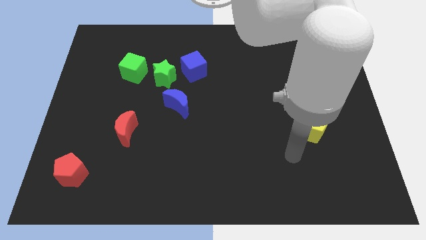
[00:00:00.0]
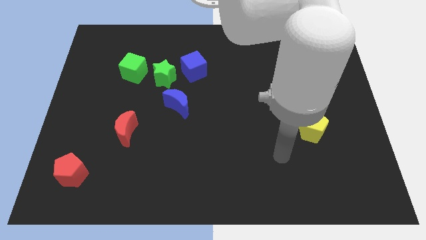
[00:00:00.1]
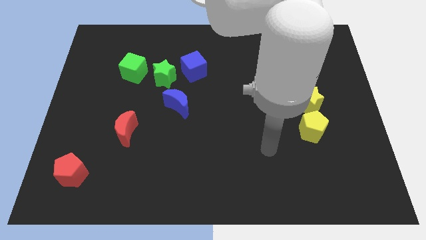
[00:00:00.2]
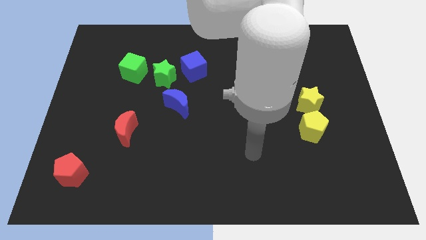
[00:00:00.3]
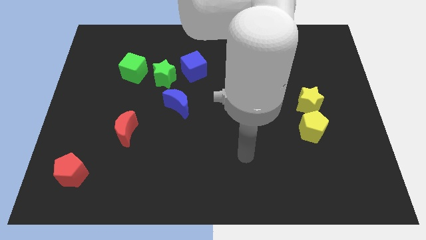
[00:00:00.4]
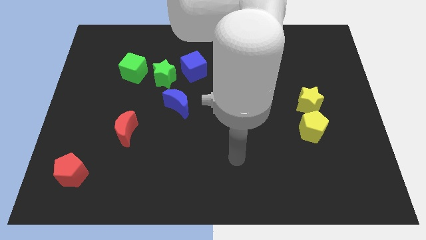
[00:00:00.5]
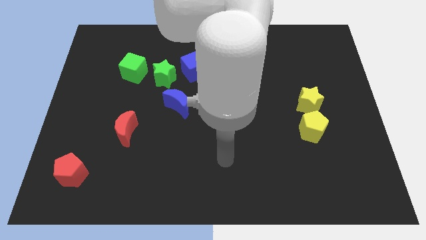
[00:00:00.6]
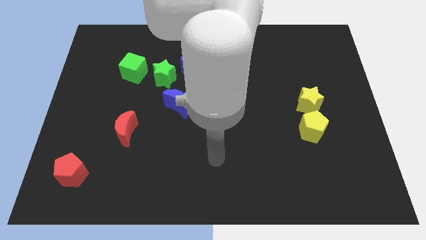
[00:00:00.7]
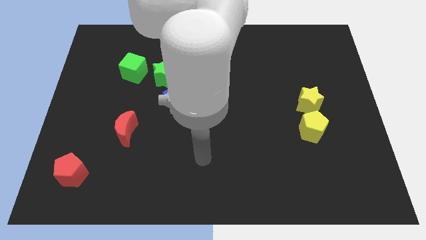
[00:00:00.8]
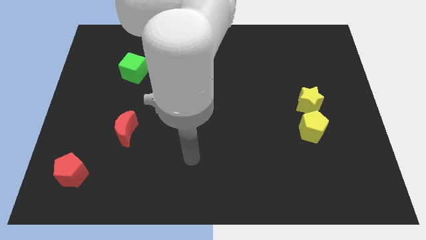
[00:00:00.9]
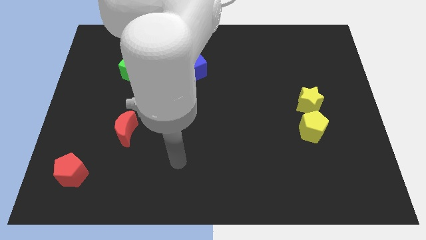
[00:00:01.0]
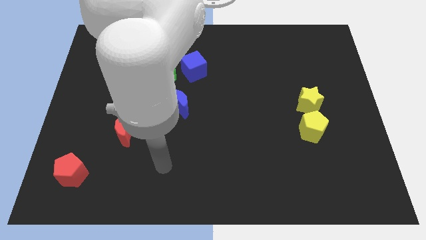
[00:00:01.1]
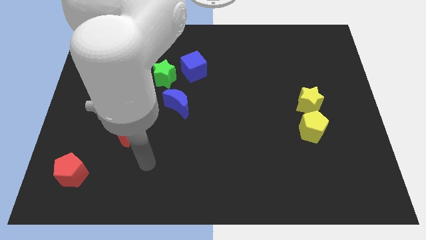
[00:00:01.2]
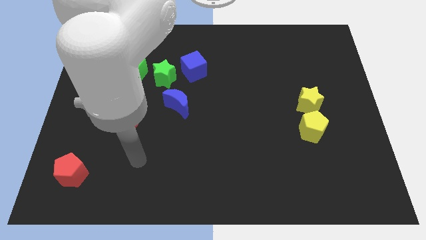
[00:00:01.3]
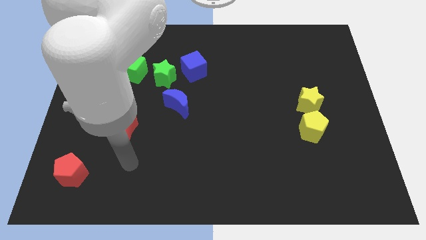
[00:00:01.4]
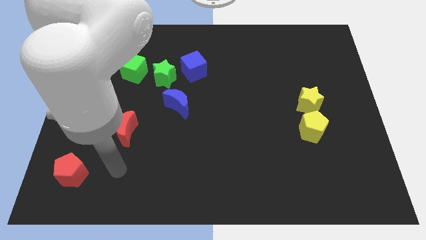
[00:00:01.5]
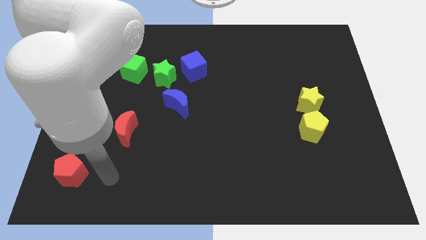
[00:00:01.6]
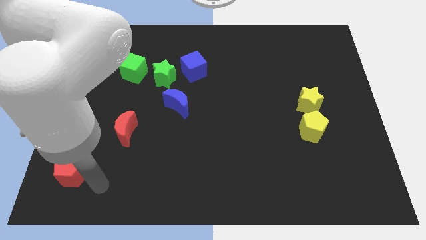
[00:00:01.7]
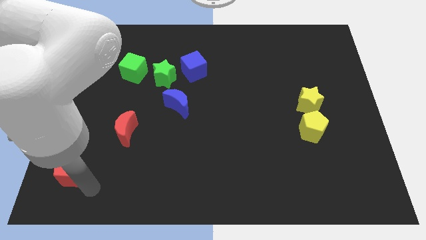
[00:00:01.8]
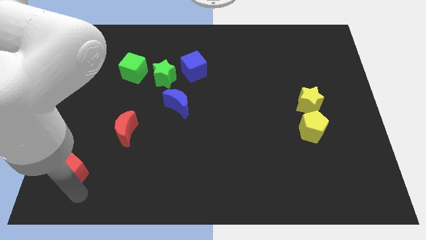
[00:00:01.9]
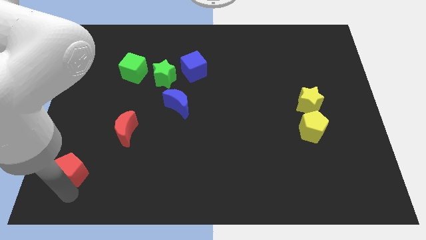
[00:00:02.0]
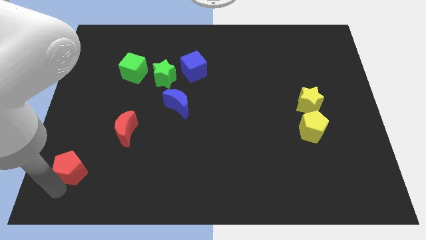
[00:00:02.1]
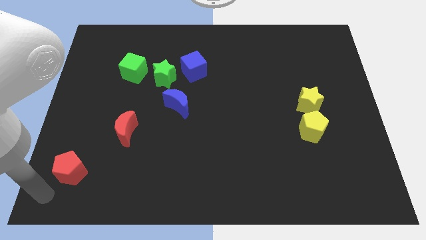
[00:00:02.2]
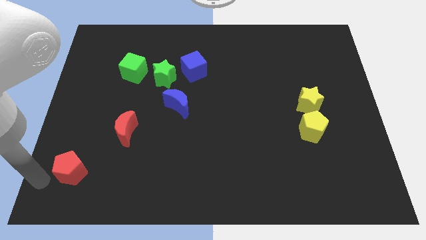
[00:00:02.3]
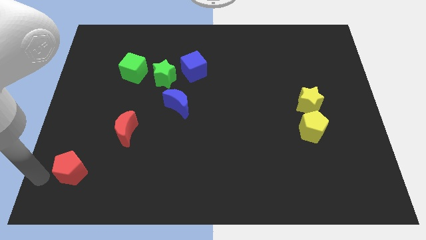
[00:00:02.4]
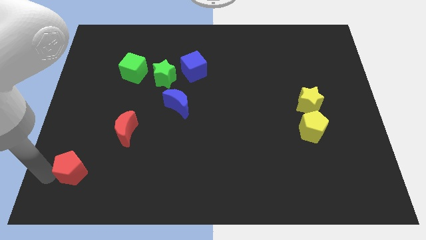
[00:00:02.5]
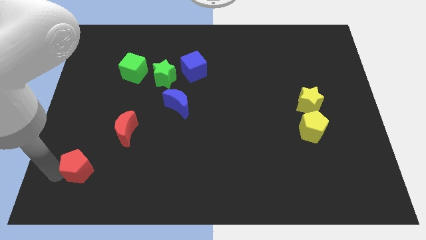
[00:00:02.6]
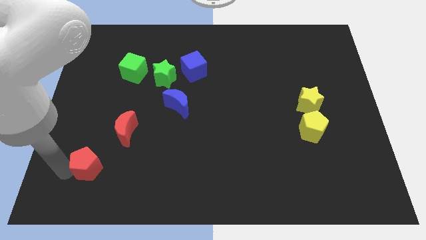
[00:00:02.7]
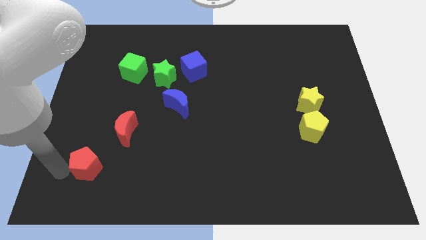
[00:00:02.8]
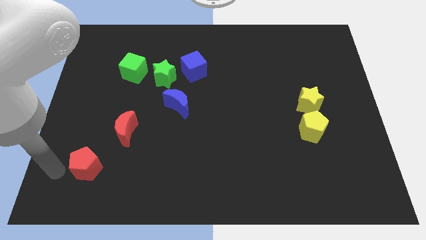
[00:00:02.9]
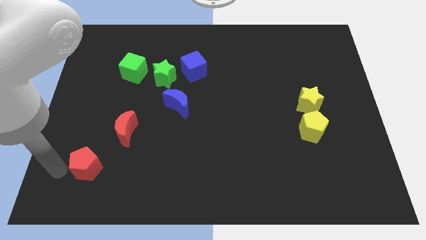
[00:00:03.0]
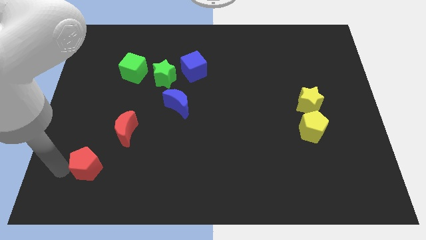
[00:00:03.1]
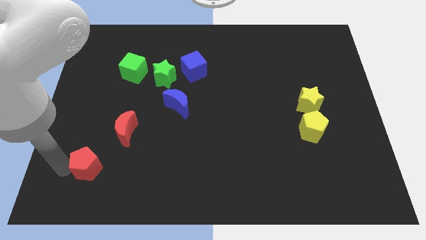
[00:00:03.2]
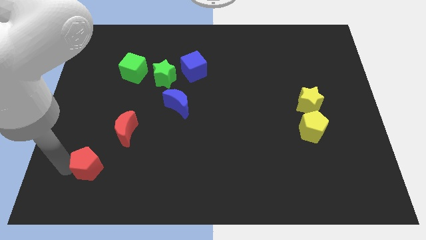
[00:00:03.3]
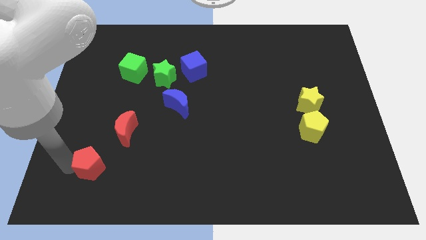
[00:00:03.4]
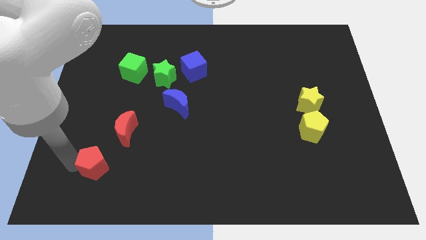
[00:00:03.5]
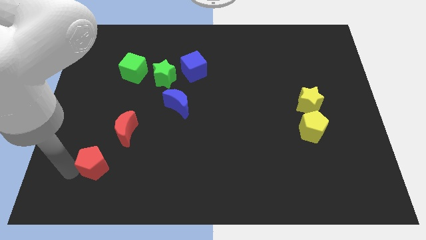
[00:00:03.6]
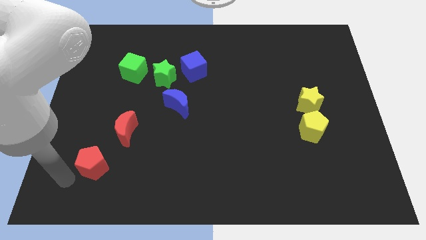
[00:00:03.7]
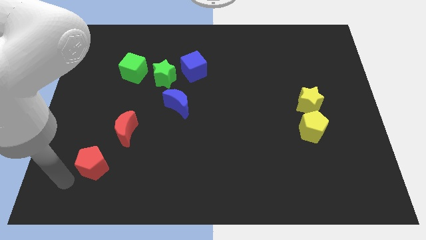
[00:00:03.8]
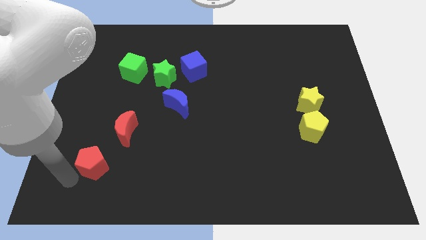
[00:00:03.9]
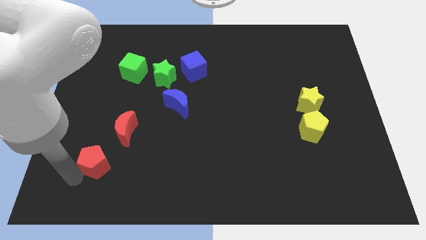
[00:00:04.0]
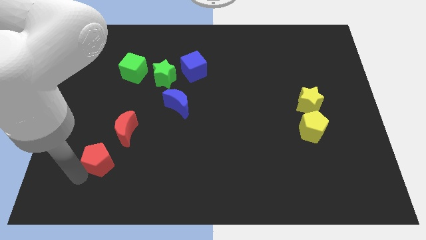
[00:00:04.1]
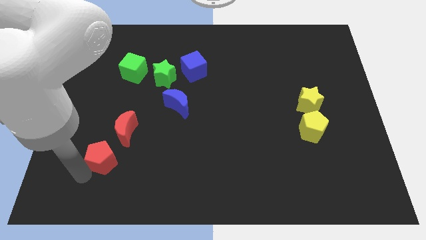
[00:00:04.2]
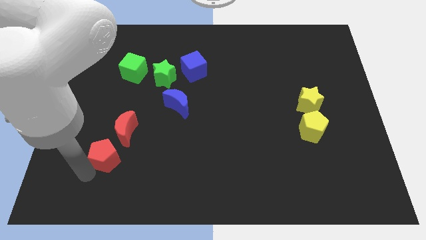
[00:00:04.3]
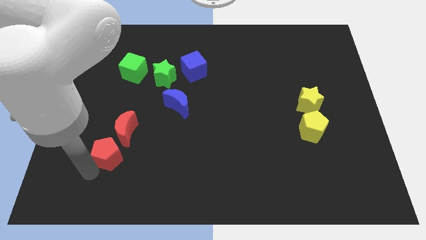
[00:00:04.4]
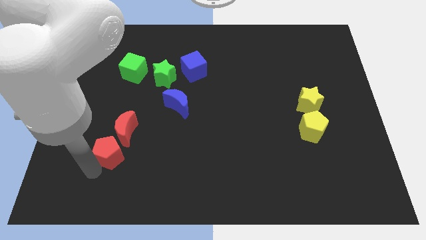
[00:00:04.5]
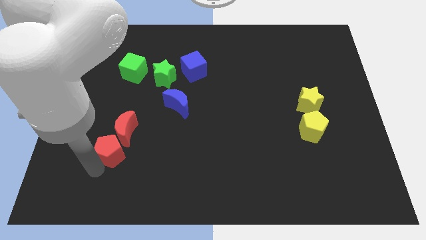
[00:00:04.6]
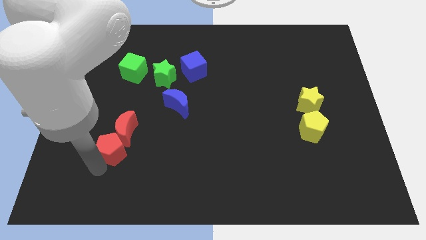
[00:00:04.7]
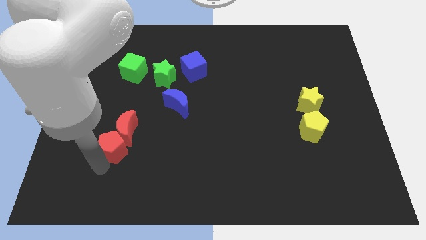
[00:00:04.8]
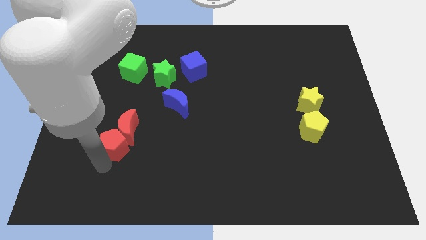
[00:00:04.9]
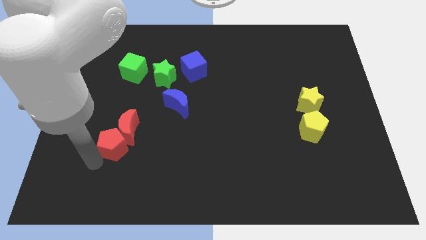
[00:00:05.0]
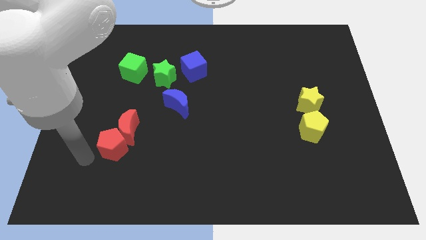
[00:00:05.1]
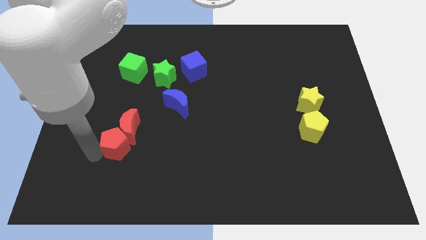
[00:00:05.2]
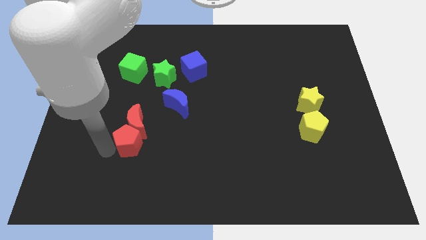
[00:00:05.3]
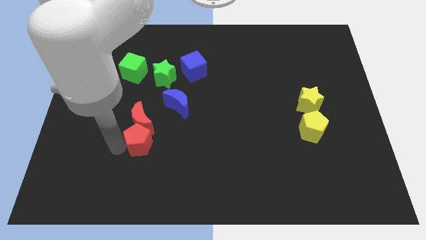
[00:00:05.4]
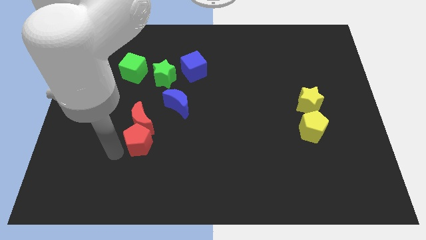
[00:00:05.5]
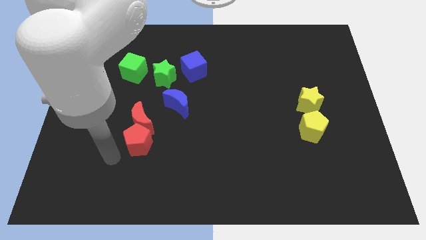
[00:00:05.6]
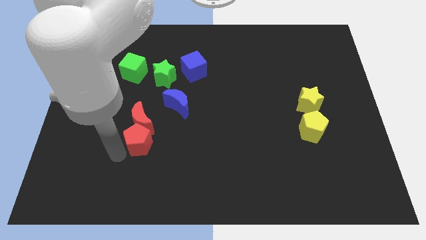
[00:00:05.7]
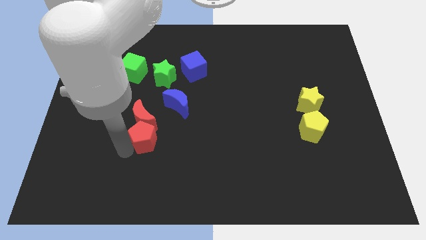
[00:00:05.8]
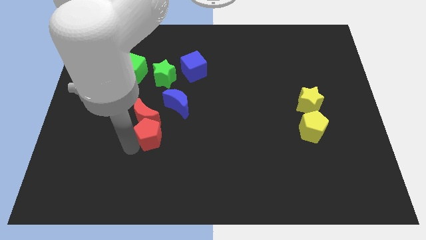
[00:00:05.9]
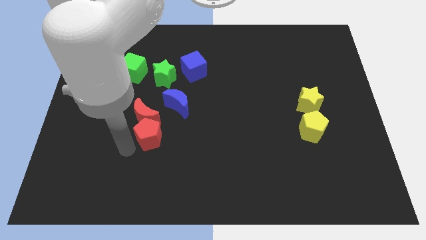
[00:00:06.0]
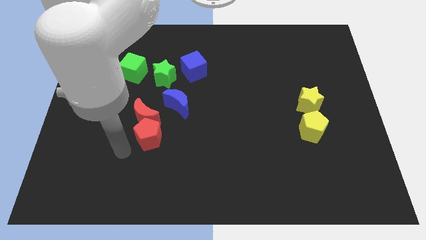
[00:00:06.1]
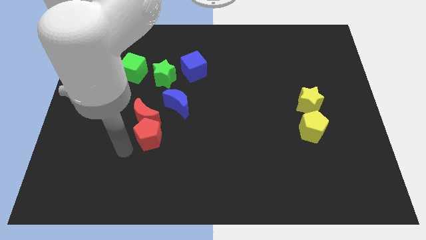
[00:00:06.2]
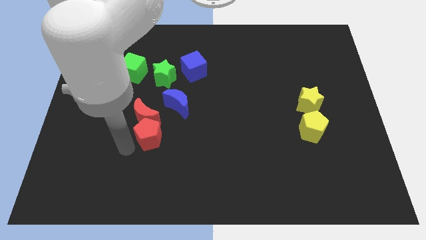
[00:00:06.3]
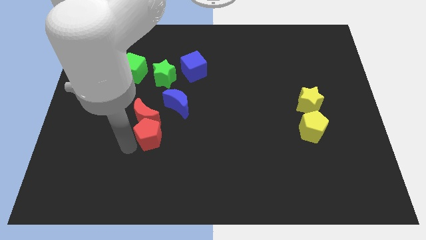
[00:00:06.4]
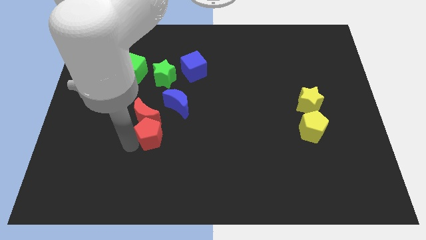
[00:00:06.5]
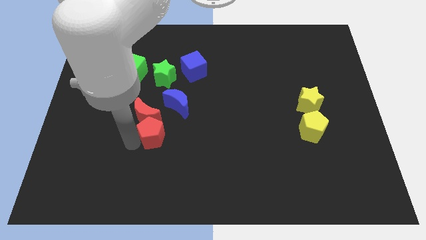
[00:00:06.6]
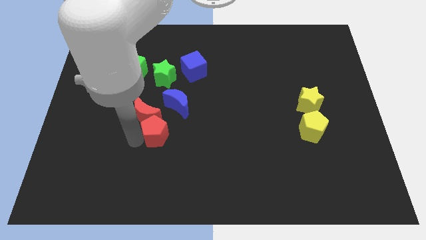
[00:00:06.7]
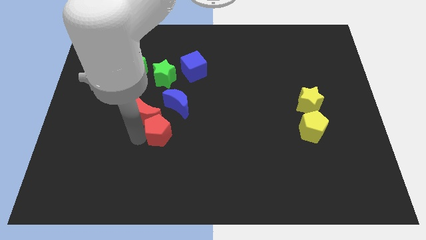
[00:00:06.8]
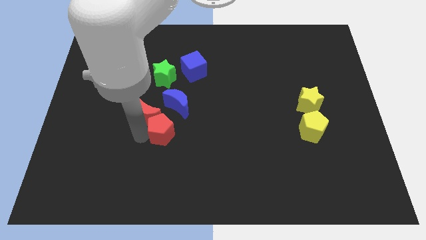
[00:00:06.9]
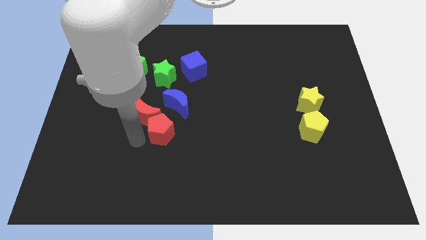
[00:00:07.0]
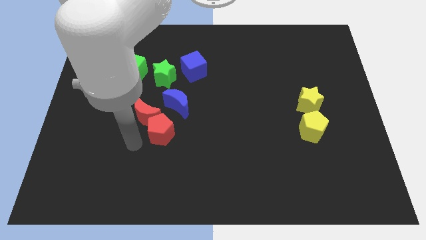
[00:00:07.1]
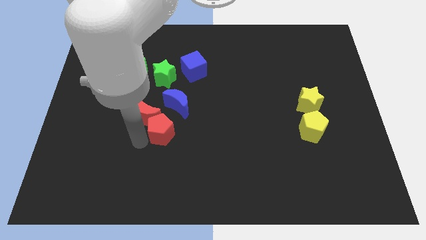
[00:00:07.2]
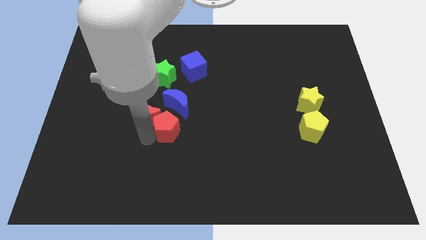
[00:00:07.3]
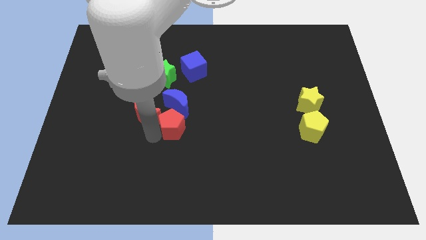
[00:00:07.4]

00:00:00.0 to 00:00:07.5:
put the red pentagon to the middle
